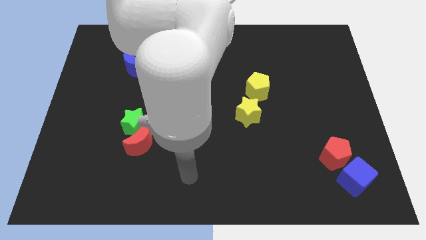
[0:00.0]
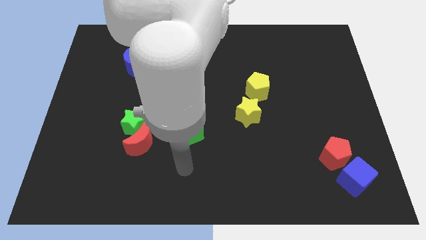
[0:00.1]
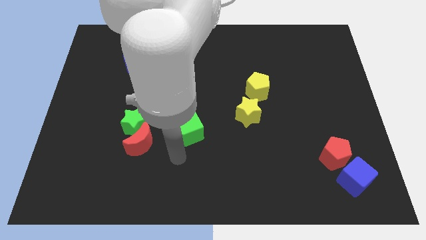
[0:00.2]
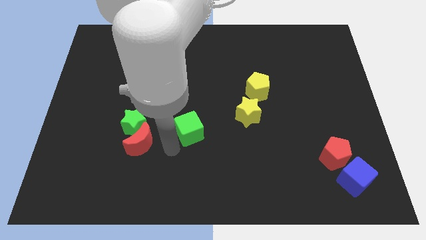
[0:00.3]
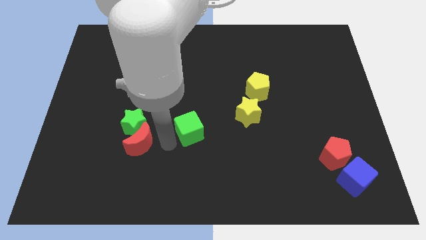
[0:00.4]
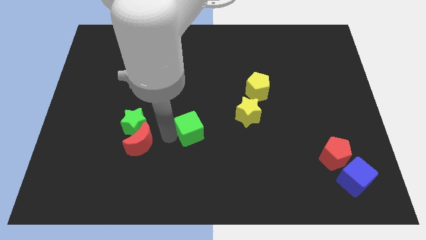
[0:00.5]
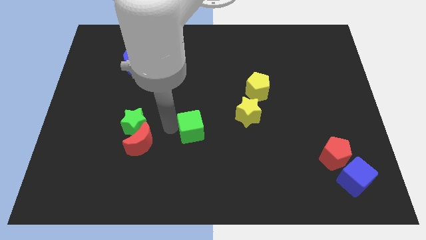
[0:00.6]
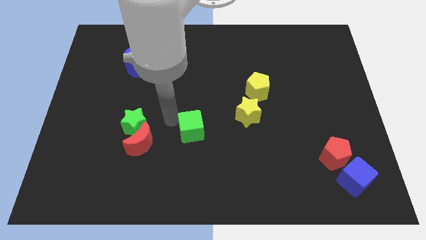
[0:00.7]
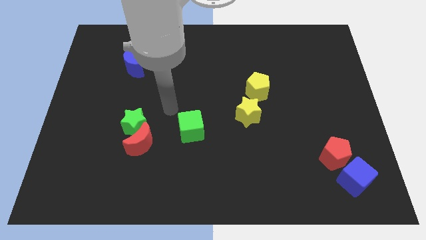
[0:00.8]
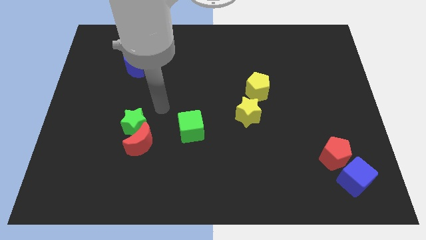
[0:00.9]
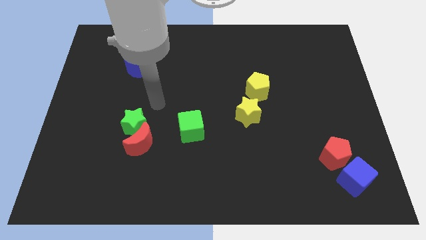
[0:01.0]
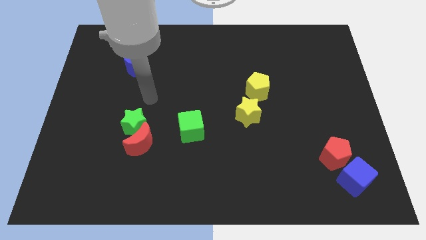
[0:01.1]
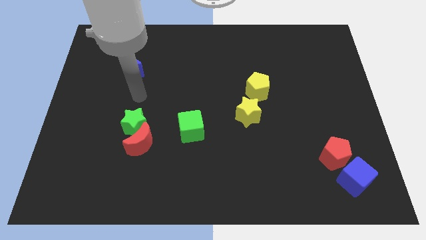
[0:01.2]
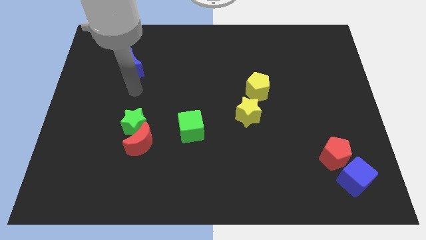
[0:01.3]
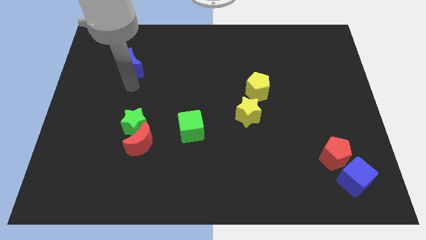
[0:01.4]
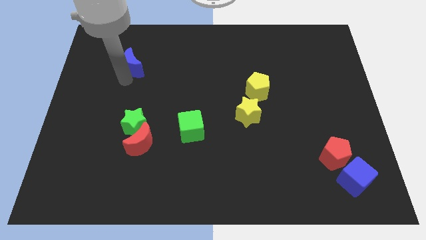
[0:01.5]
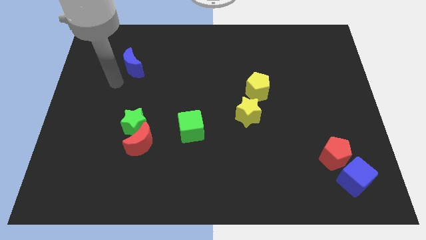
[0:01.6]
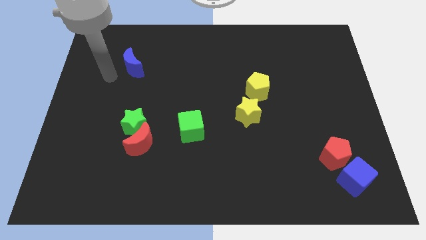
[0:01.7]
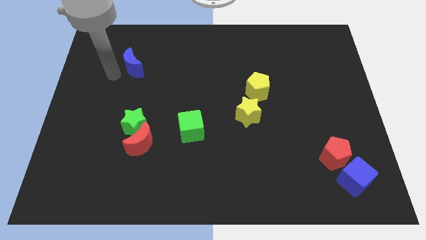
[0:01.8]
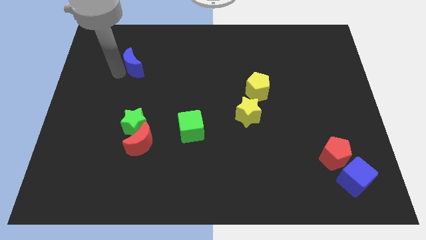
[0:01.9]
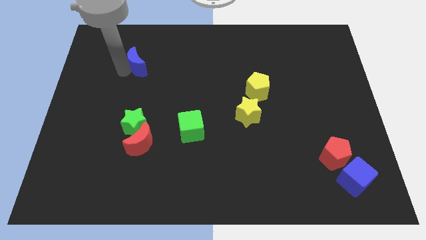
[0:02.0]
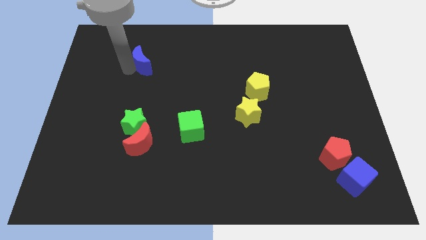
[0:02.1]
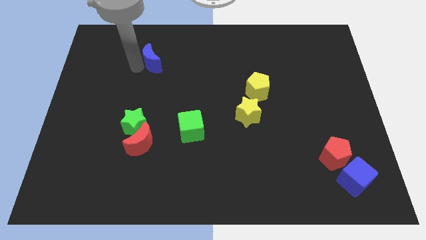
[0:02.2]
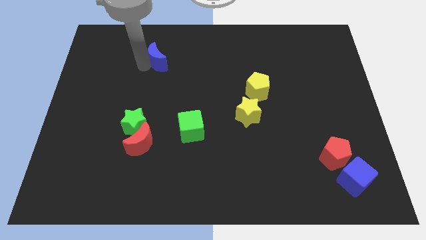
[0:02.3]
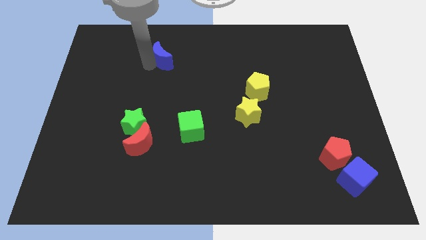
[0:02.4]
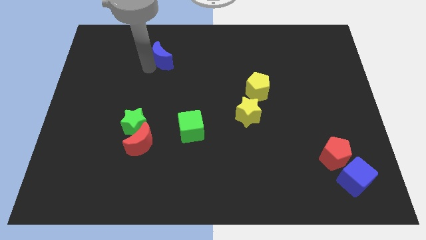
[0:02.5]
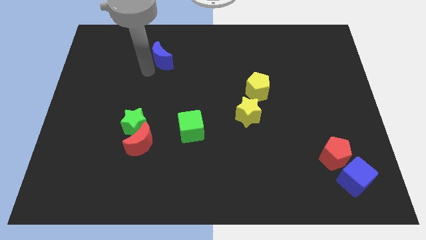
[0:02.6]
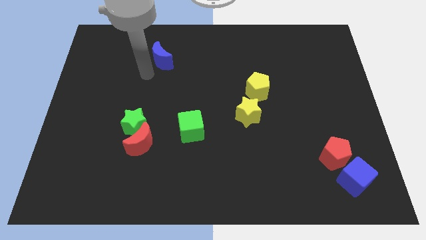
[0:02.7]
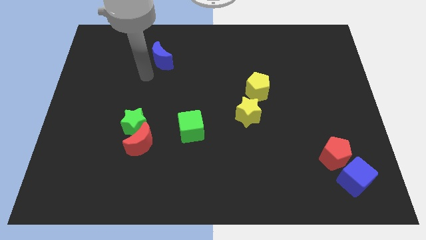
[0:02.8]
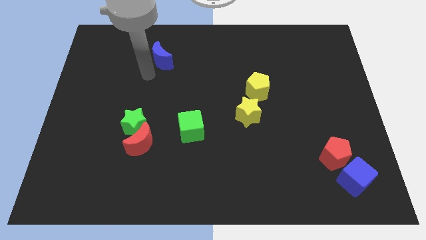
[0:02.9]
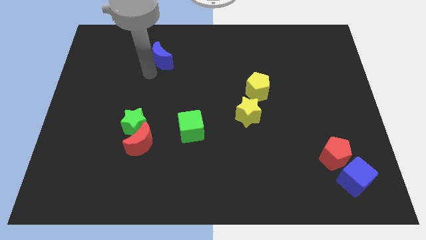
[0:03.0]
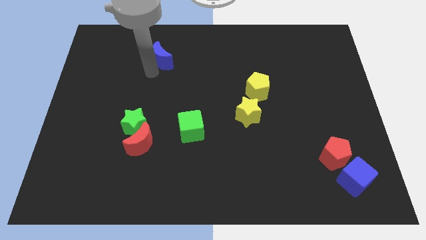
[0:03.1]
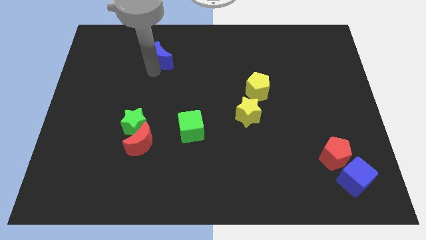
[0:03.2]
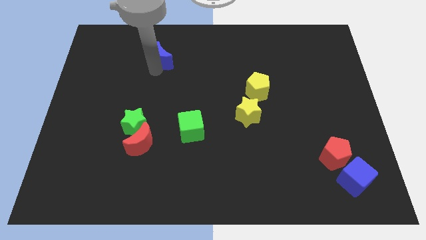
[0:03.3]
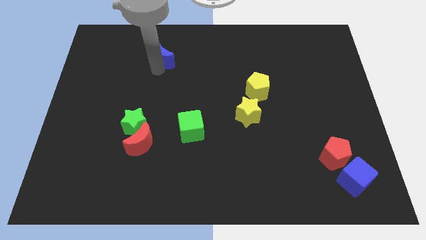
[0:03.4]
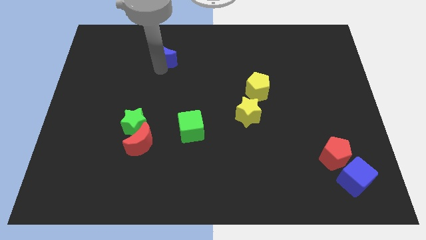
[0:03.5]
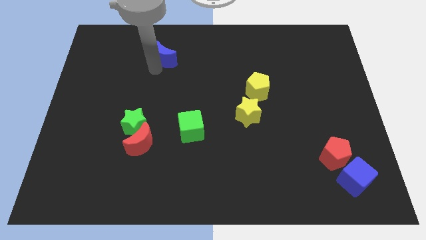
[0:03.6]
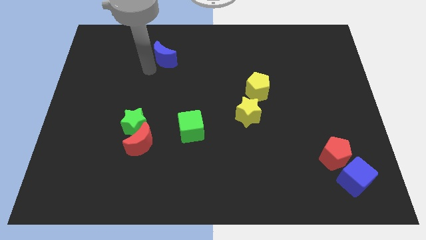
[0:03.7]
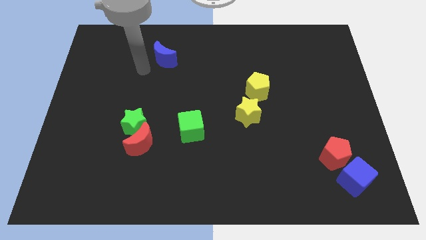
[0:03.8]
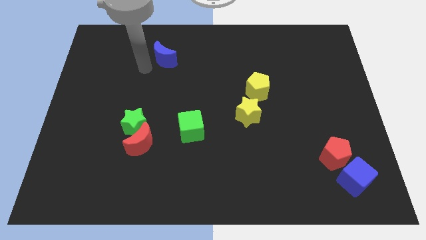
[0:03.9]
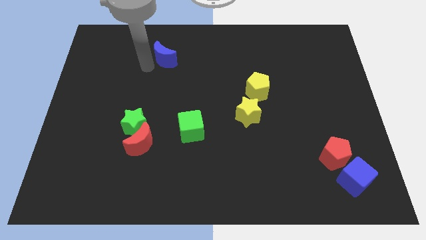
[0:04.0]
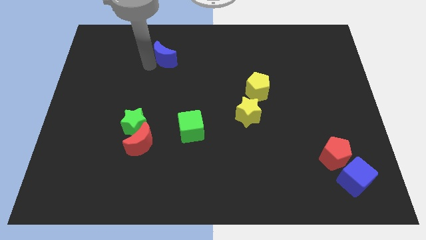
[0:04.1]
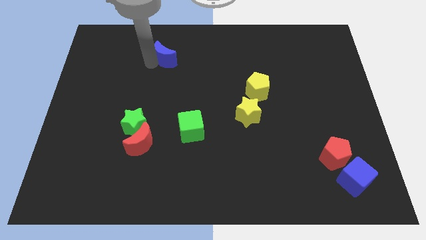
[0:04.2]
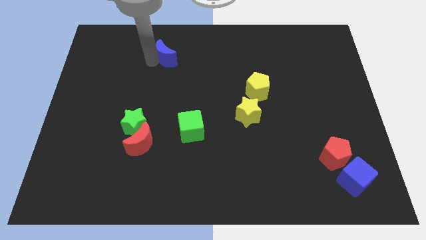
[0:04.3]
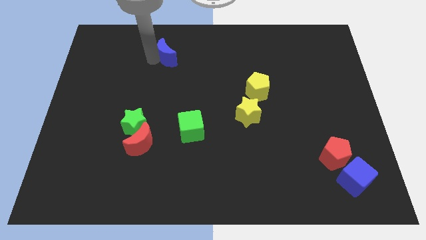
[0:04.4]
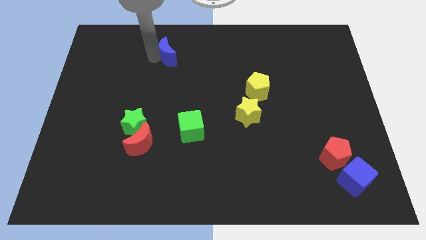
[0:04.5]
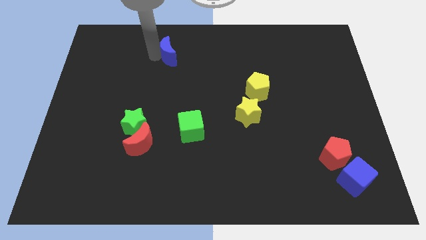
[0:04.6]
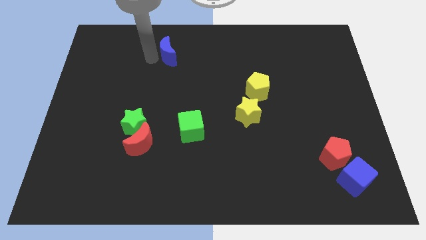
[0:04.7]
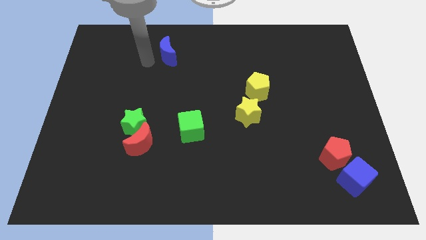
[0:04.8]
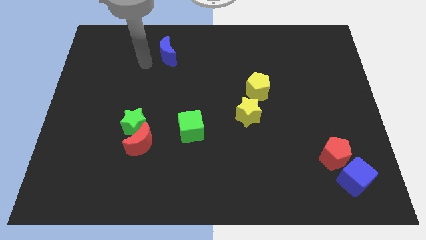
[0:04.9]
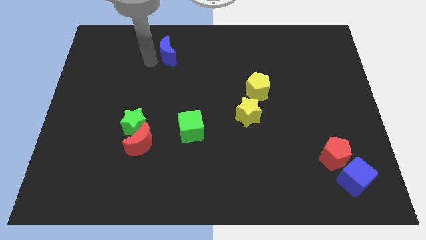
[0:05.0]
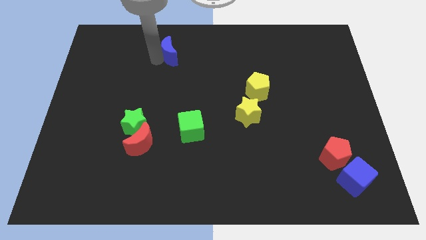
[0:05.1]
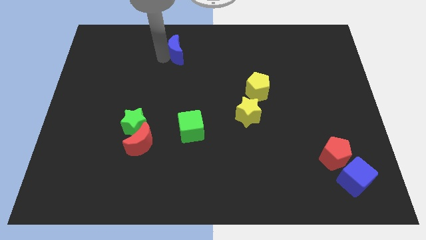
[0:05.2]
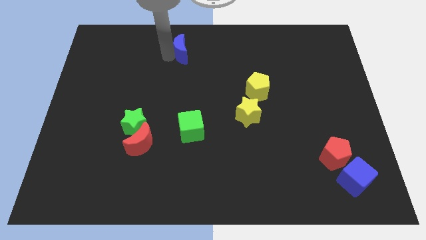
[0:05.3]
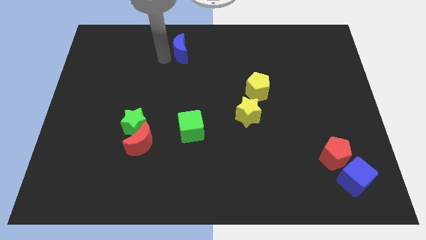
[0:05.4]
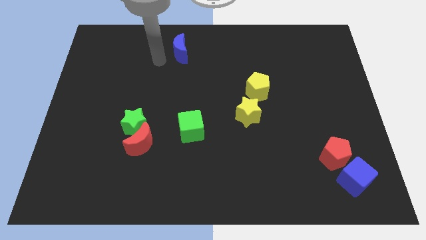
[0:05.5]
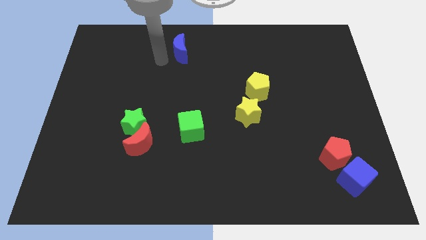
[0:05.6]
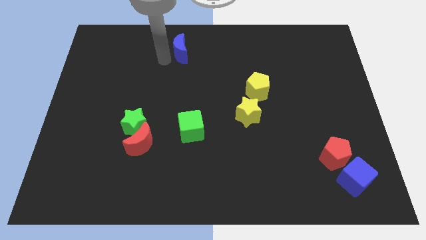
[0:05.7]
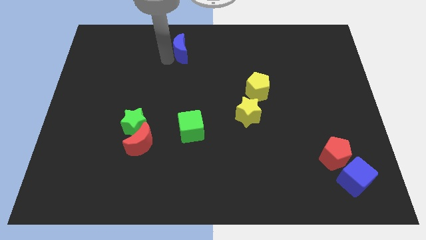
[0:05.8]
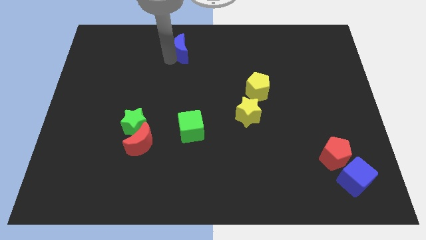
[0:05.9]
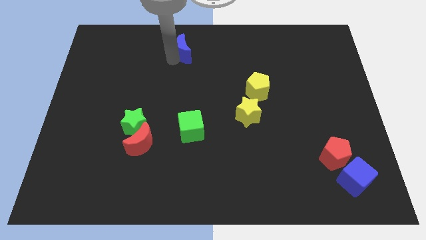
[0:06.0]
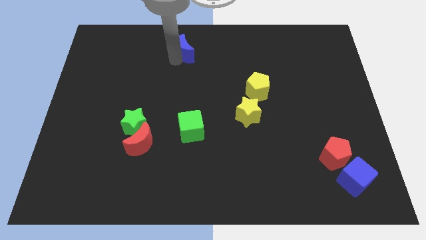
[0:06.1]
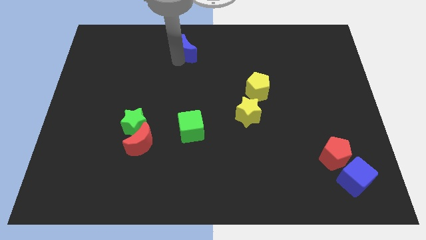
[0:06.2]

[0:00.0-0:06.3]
put the blue moon to the top side

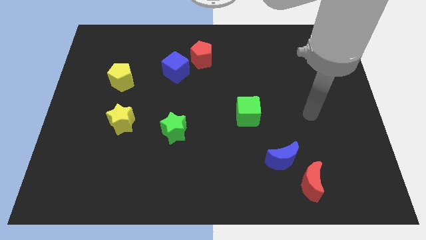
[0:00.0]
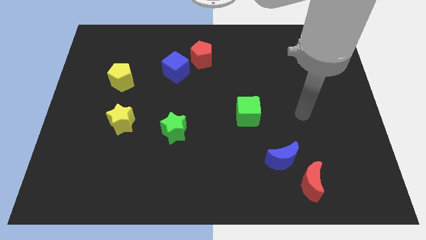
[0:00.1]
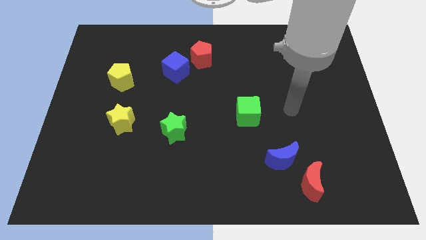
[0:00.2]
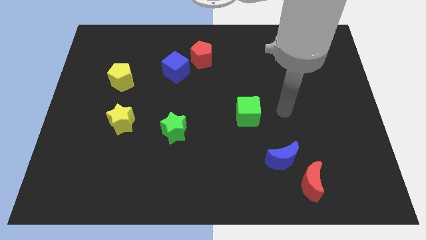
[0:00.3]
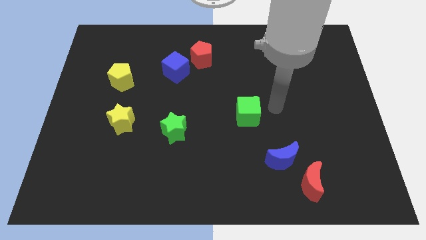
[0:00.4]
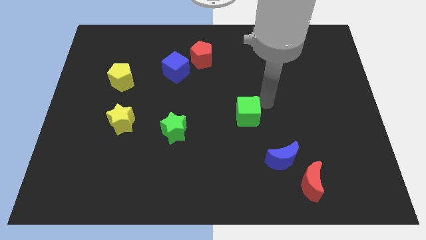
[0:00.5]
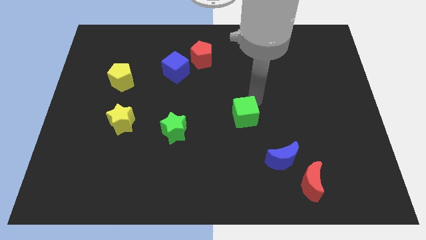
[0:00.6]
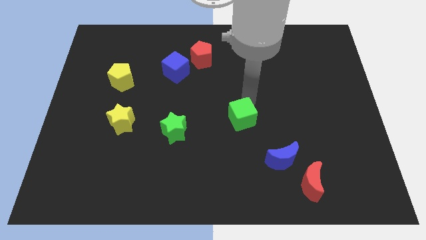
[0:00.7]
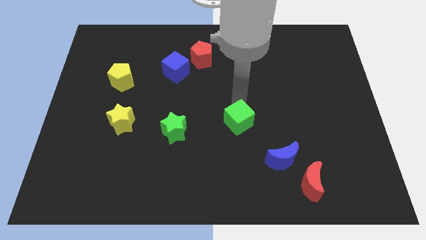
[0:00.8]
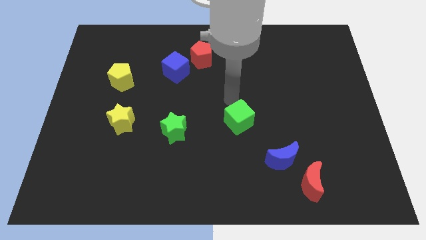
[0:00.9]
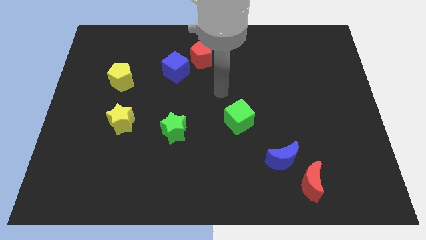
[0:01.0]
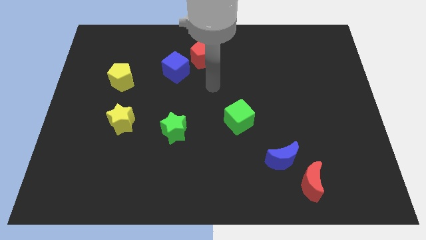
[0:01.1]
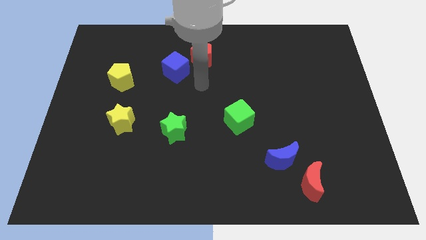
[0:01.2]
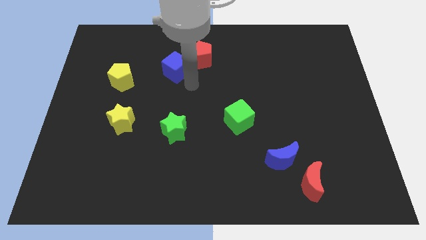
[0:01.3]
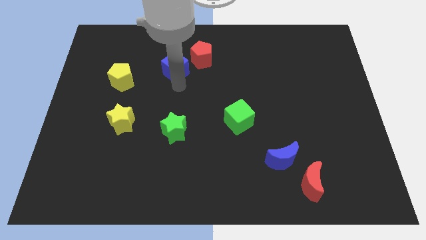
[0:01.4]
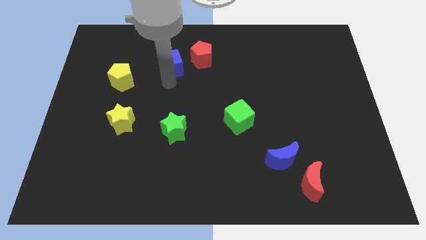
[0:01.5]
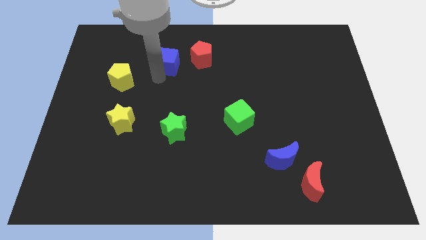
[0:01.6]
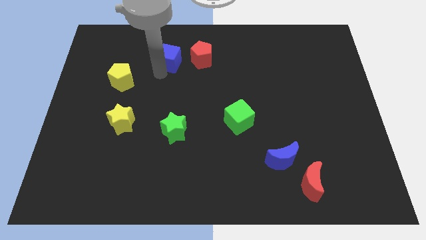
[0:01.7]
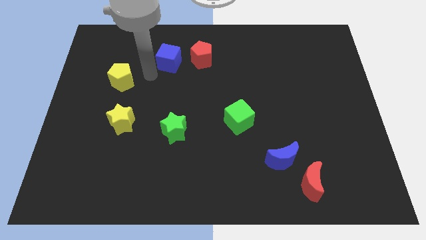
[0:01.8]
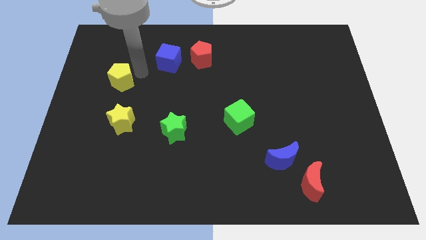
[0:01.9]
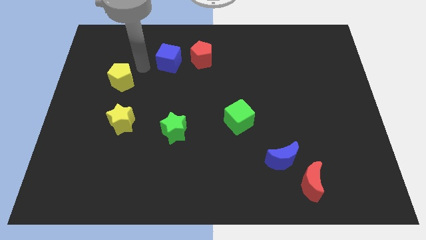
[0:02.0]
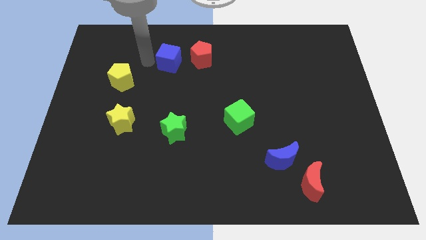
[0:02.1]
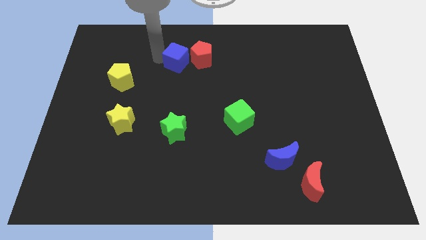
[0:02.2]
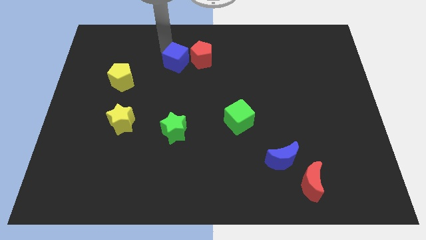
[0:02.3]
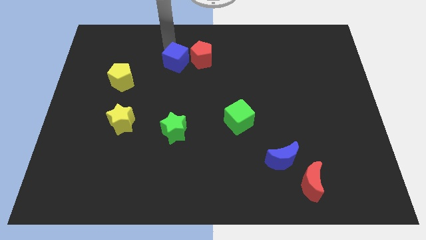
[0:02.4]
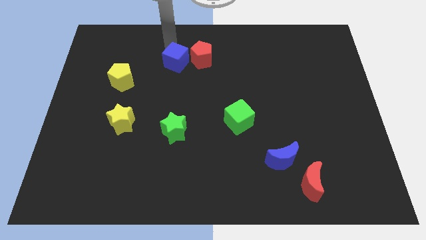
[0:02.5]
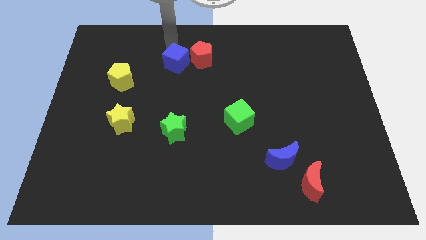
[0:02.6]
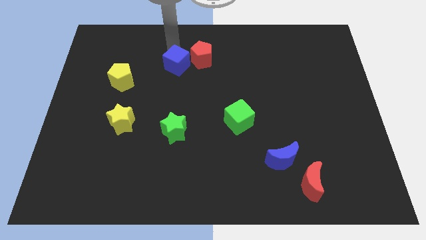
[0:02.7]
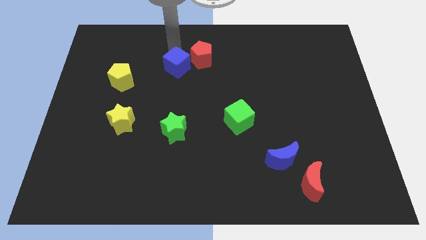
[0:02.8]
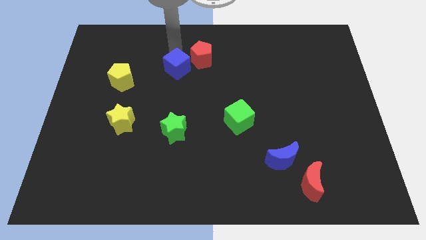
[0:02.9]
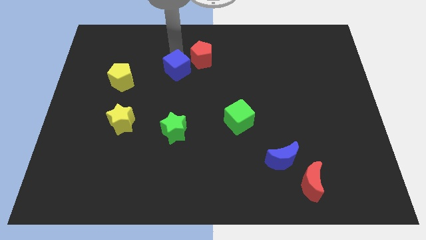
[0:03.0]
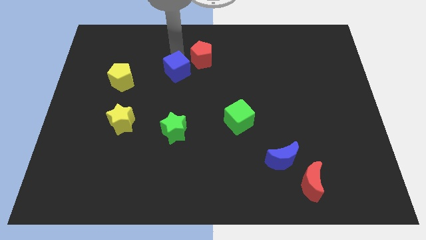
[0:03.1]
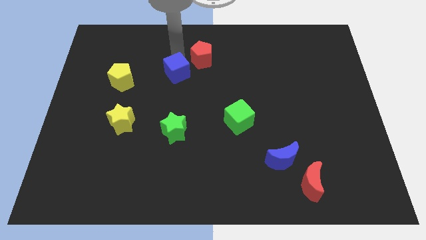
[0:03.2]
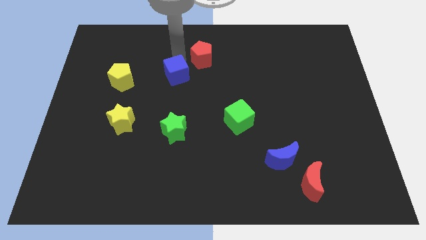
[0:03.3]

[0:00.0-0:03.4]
push the blue cube to the middle of the board
